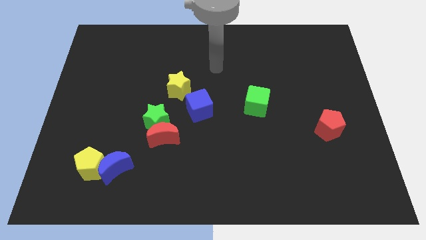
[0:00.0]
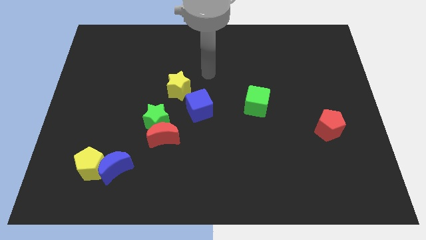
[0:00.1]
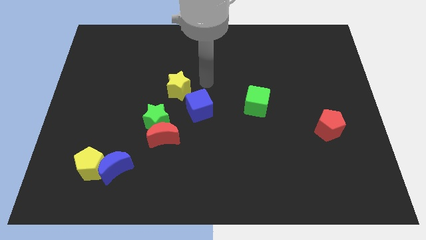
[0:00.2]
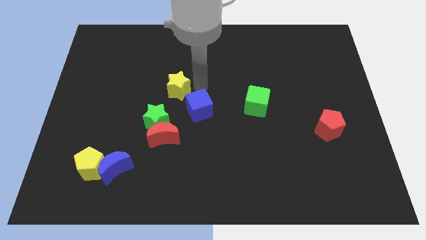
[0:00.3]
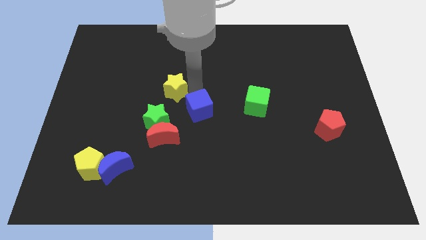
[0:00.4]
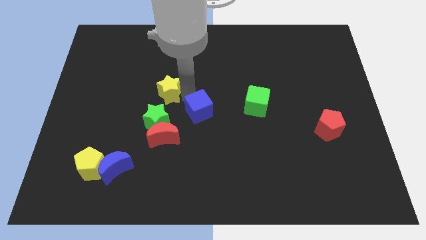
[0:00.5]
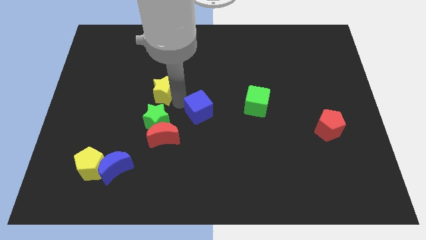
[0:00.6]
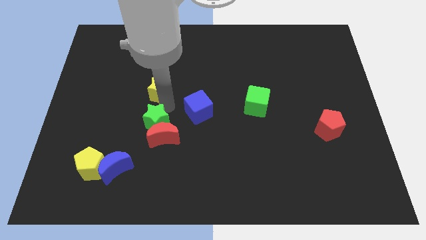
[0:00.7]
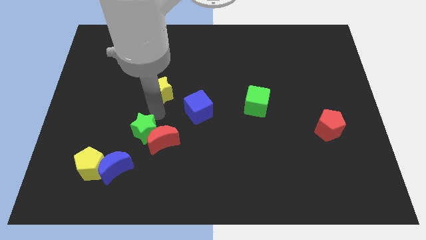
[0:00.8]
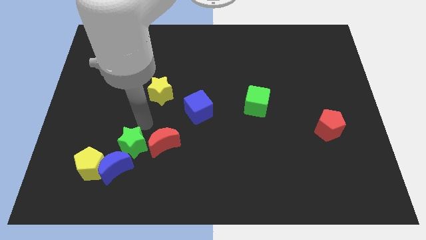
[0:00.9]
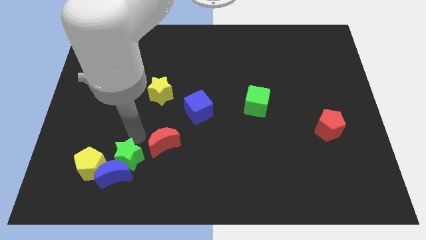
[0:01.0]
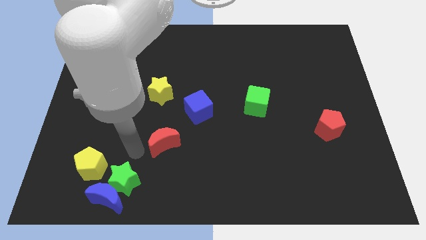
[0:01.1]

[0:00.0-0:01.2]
separate the red moon from the green star

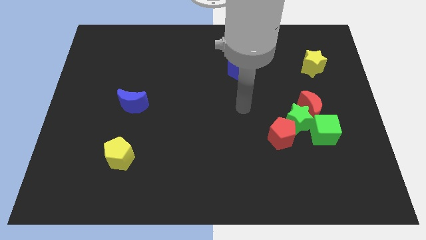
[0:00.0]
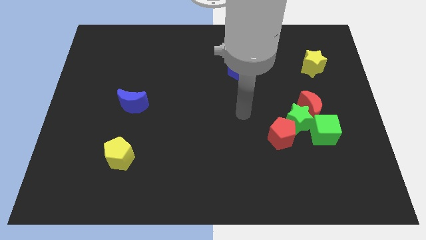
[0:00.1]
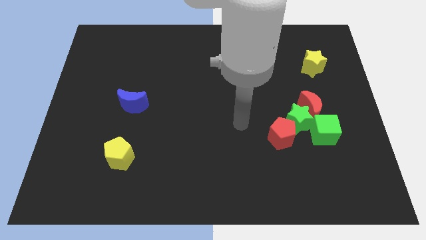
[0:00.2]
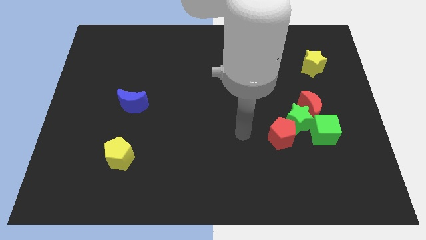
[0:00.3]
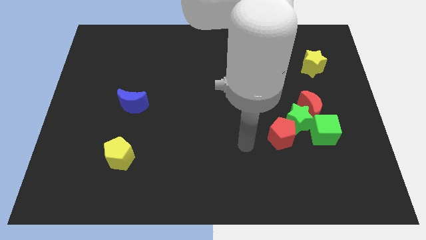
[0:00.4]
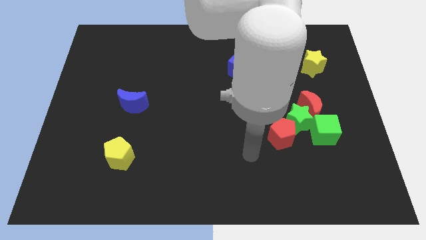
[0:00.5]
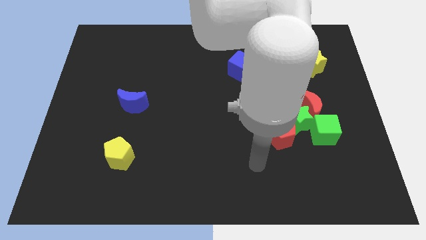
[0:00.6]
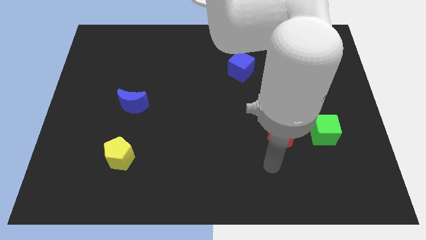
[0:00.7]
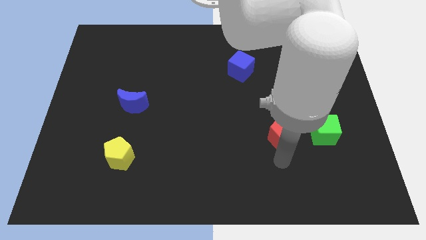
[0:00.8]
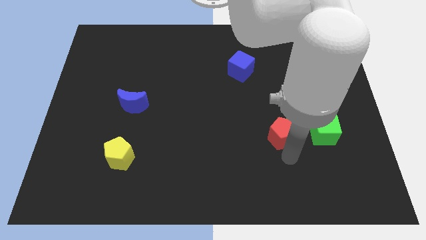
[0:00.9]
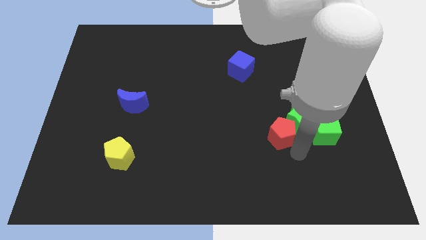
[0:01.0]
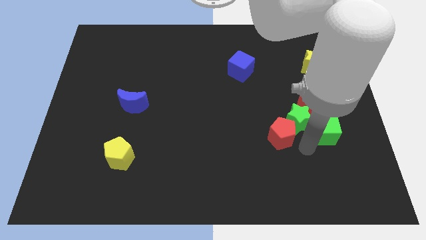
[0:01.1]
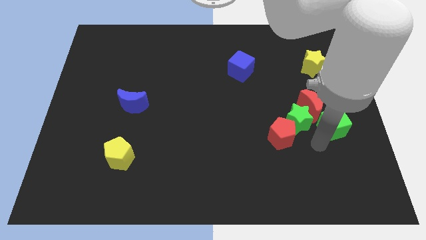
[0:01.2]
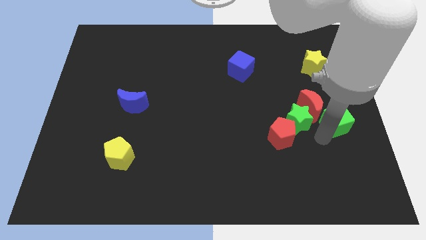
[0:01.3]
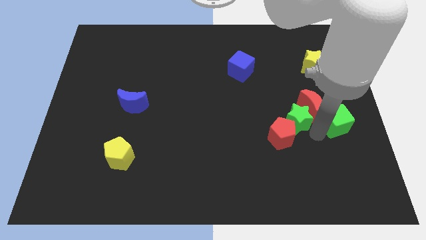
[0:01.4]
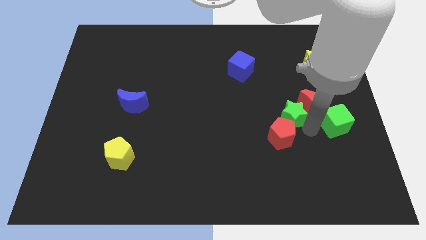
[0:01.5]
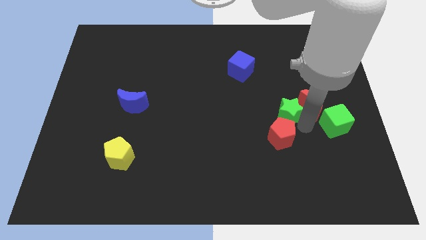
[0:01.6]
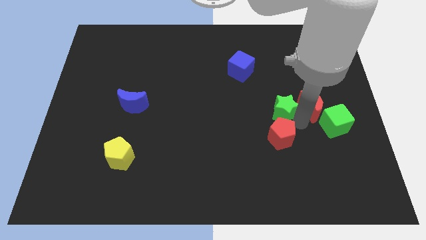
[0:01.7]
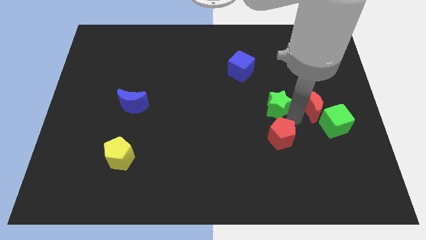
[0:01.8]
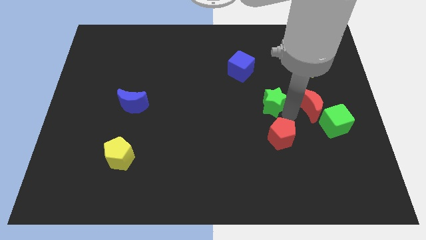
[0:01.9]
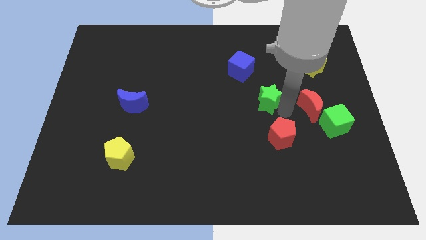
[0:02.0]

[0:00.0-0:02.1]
move the green star away from the red moon, red pentagon, and green cube

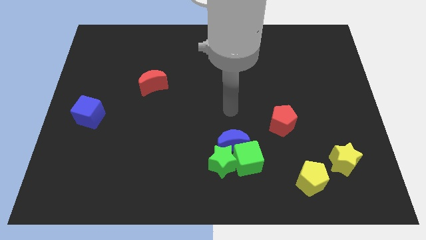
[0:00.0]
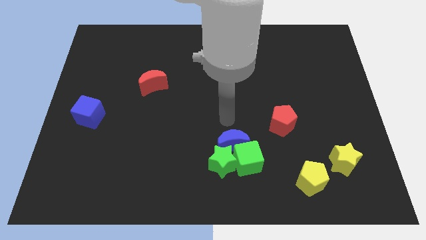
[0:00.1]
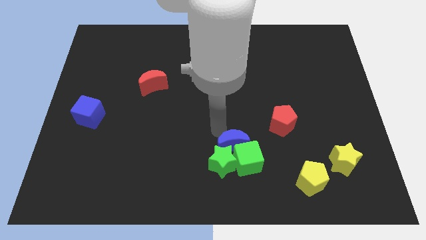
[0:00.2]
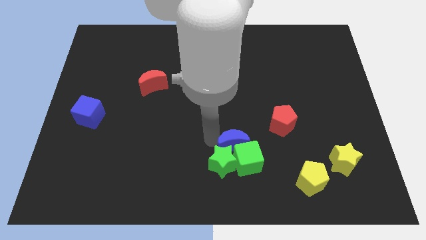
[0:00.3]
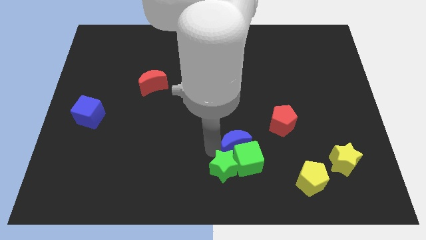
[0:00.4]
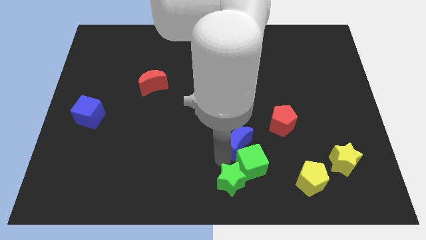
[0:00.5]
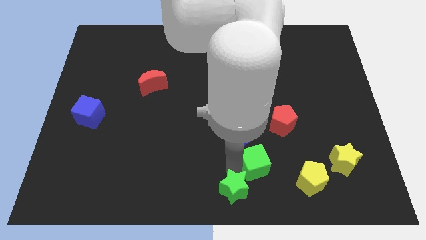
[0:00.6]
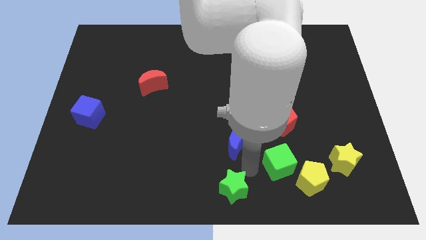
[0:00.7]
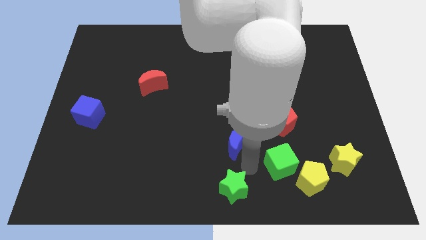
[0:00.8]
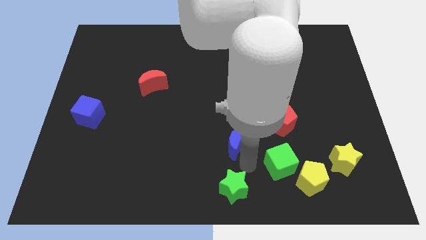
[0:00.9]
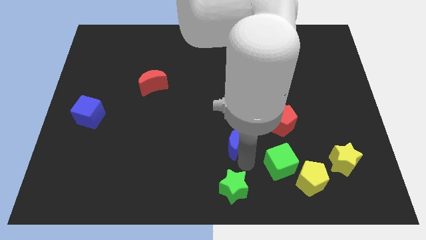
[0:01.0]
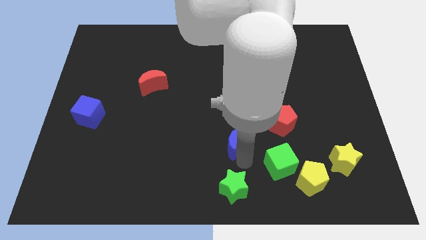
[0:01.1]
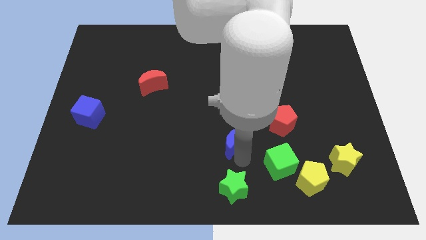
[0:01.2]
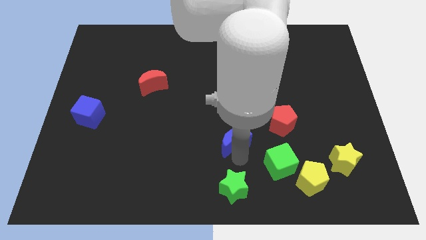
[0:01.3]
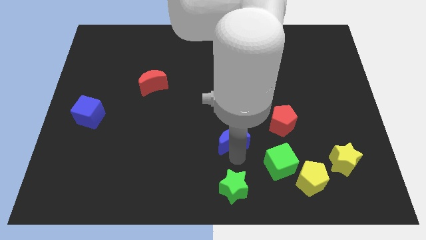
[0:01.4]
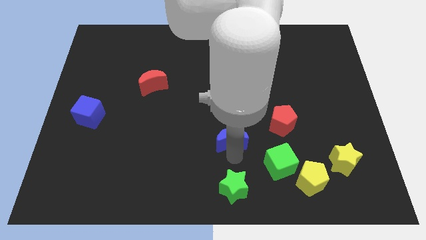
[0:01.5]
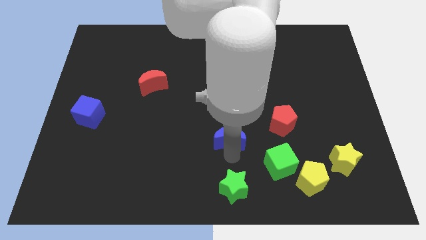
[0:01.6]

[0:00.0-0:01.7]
pull the blue moon apart from the green star and green cube

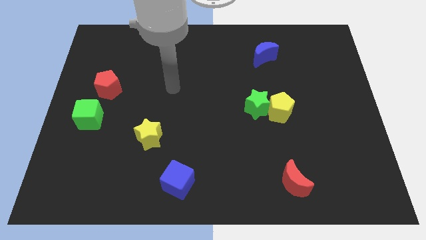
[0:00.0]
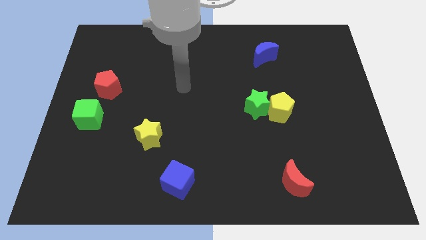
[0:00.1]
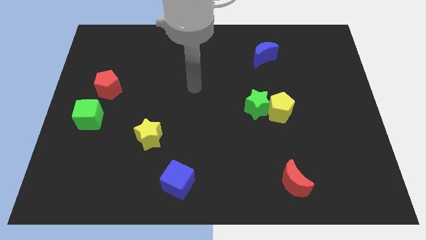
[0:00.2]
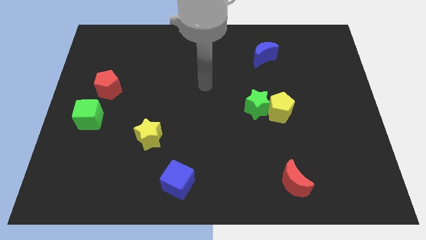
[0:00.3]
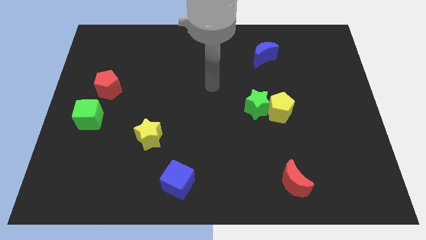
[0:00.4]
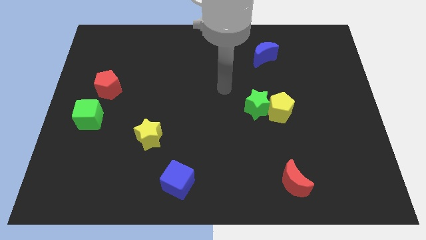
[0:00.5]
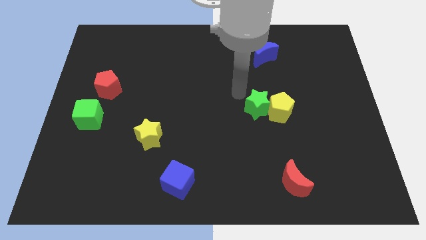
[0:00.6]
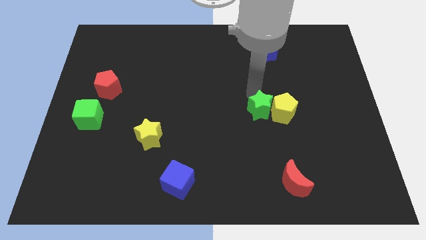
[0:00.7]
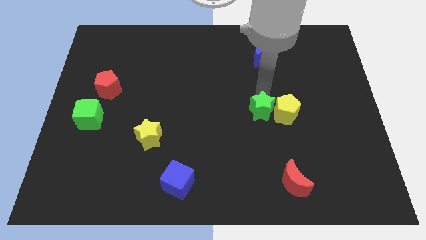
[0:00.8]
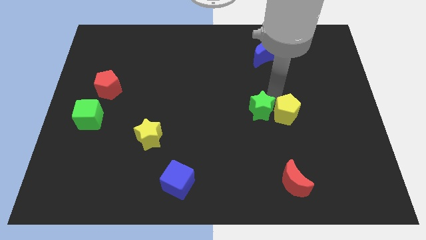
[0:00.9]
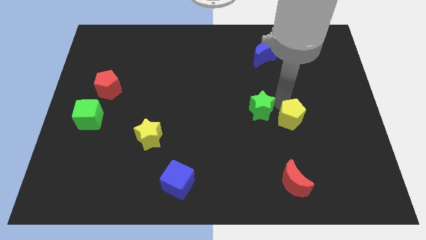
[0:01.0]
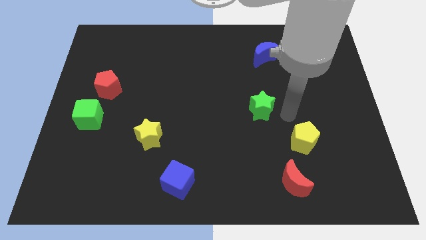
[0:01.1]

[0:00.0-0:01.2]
separate the green star from the yellow pentagon

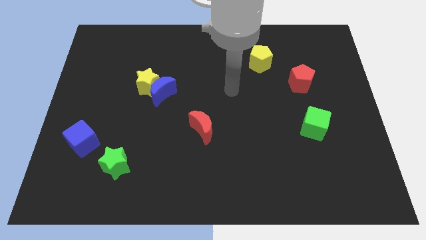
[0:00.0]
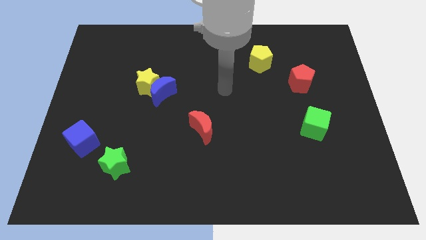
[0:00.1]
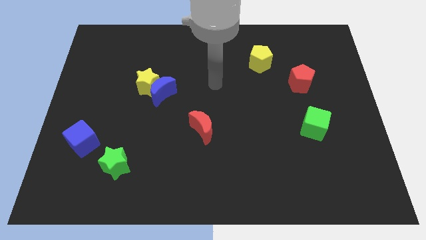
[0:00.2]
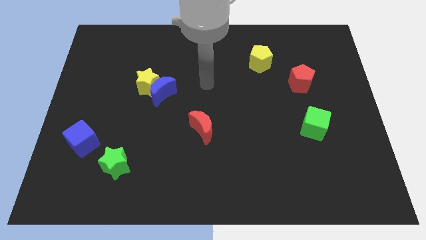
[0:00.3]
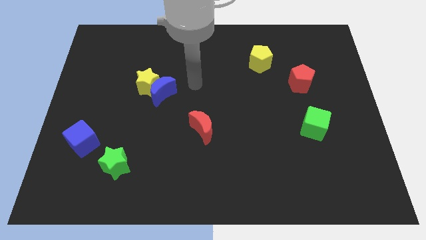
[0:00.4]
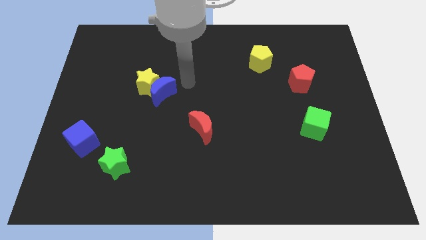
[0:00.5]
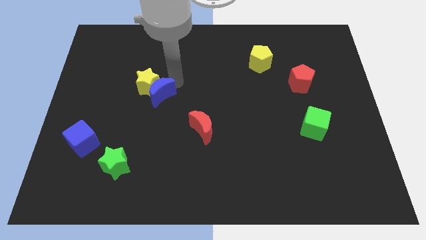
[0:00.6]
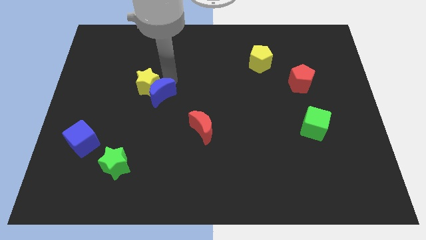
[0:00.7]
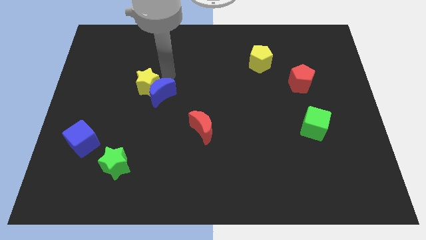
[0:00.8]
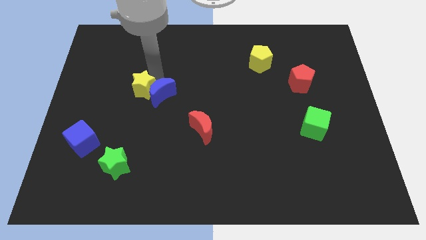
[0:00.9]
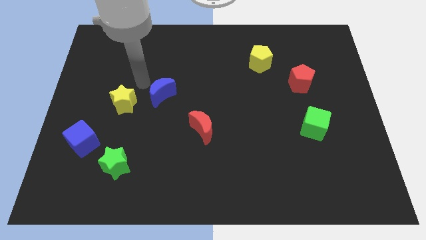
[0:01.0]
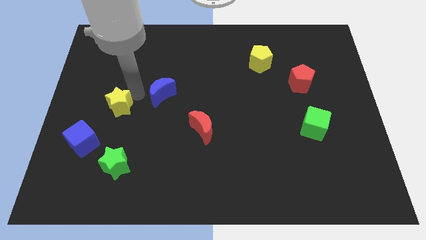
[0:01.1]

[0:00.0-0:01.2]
pull the blue moon apart from the yellow star

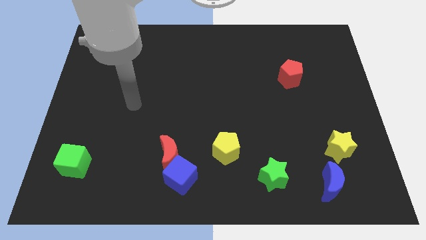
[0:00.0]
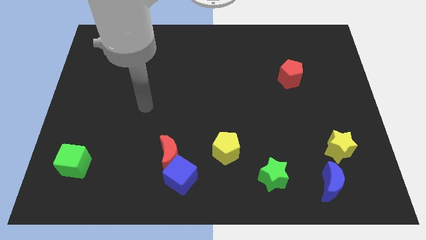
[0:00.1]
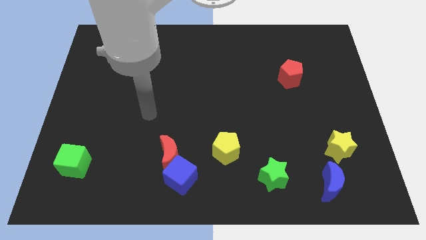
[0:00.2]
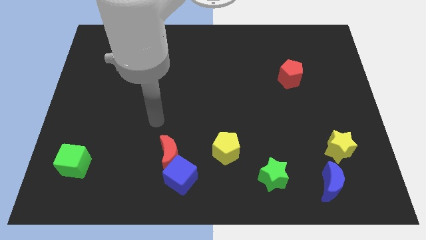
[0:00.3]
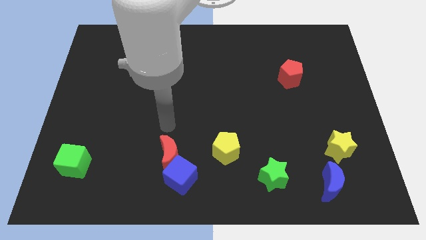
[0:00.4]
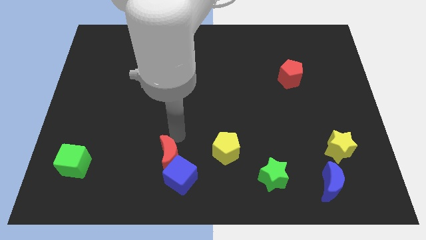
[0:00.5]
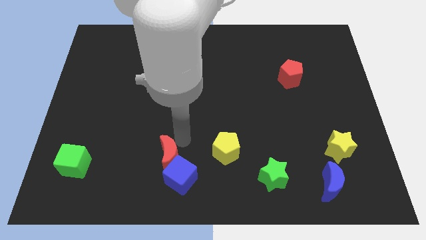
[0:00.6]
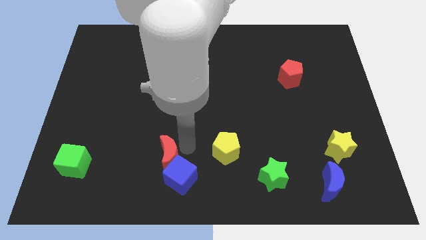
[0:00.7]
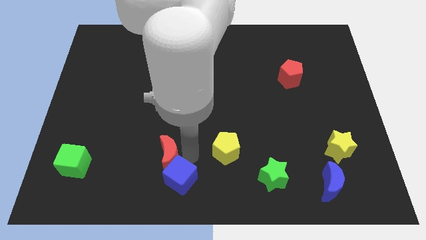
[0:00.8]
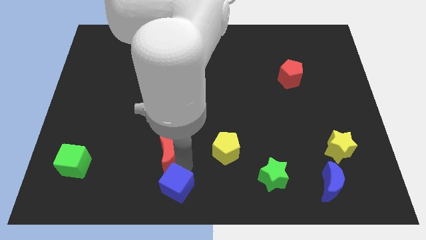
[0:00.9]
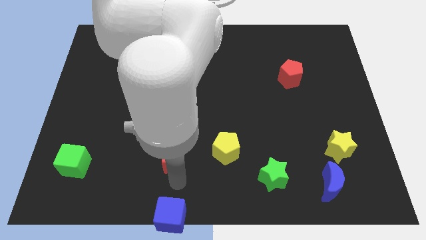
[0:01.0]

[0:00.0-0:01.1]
separate the red moon from the blue cube

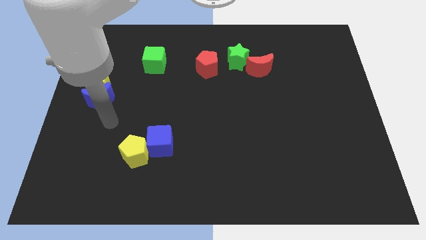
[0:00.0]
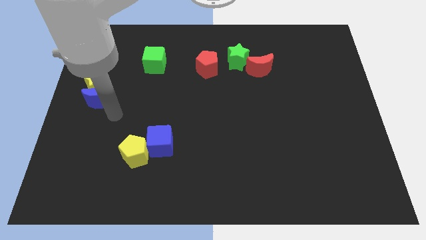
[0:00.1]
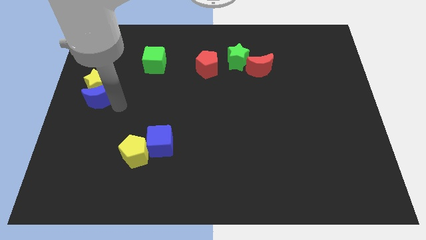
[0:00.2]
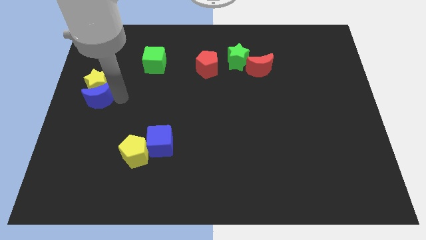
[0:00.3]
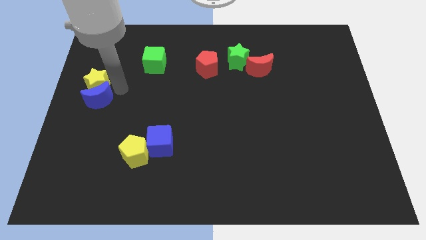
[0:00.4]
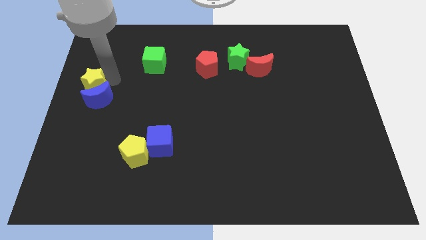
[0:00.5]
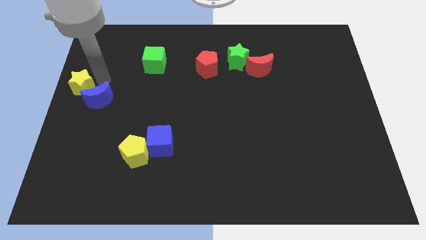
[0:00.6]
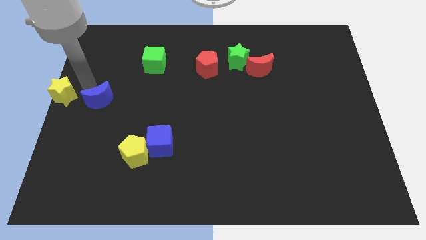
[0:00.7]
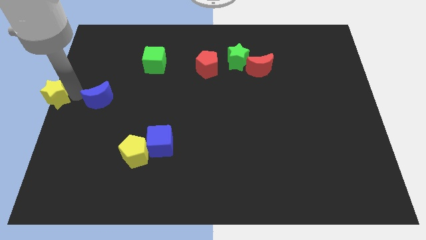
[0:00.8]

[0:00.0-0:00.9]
move the blue moon away from the yellow star
